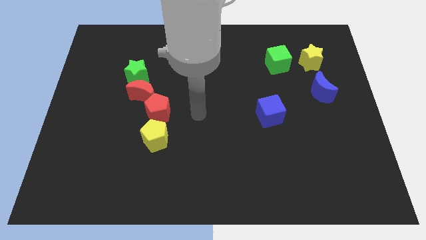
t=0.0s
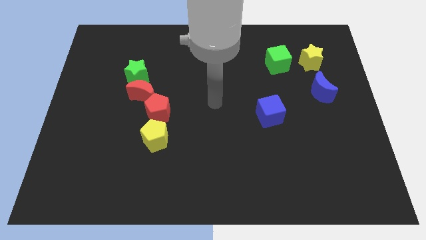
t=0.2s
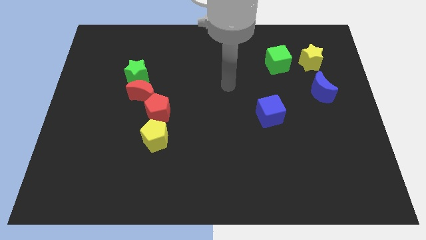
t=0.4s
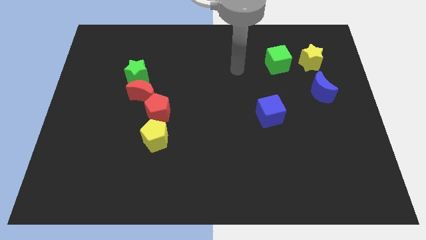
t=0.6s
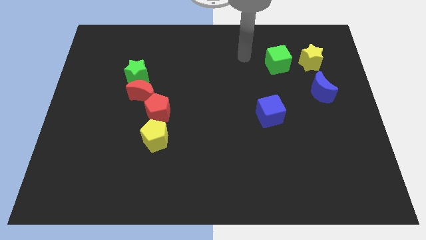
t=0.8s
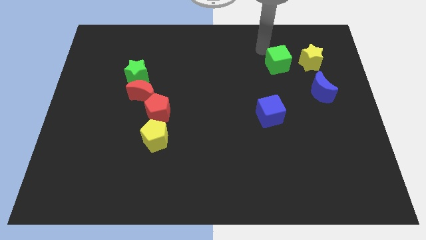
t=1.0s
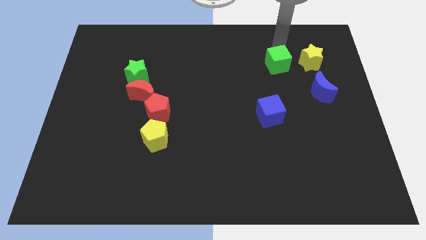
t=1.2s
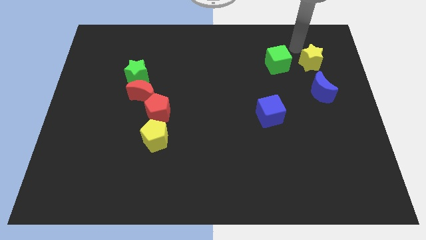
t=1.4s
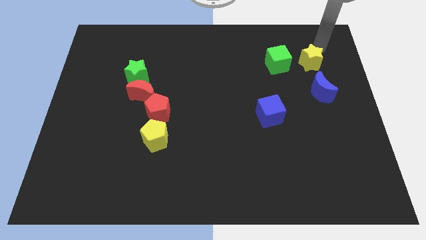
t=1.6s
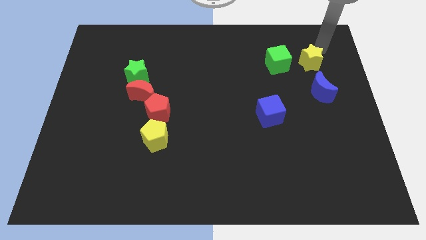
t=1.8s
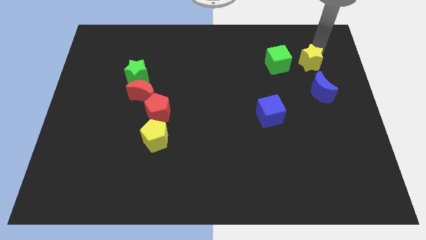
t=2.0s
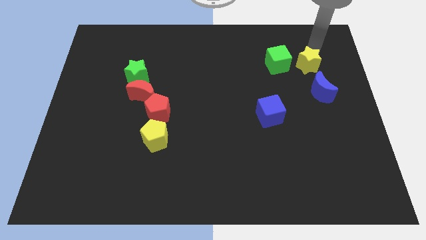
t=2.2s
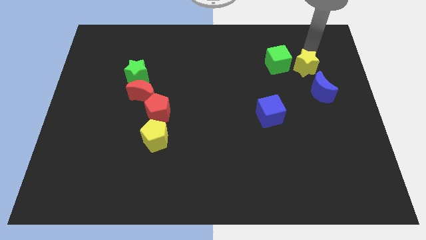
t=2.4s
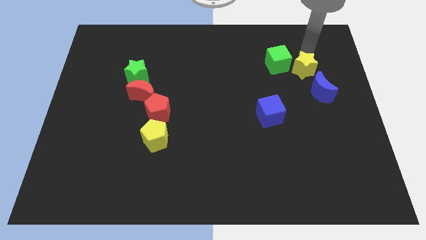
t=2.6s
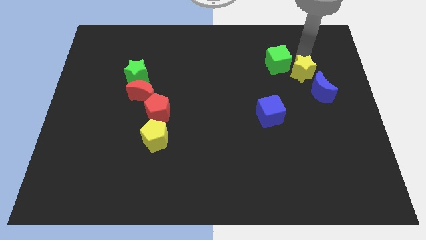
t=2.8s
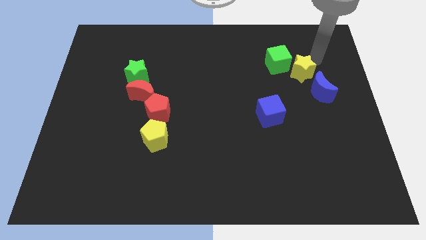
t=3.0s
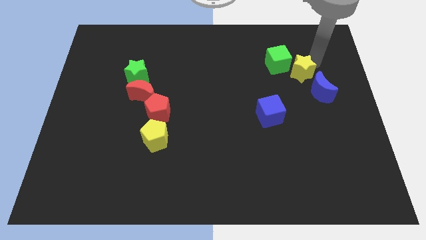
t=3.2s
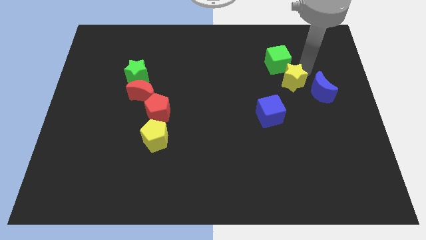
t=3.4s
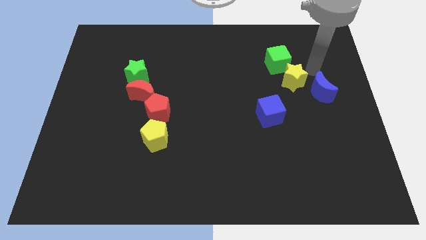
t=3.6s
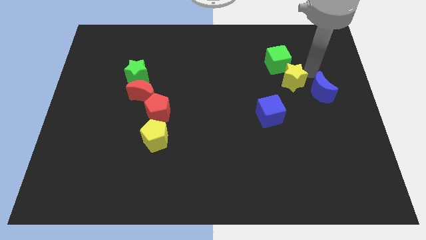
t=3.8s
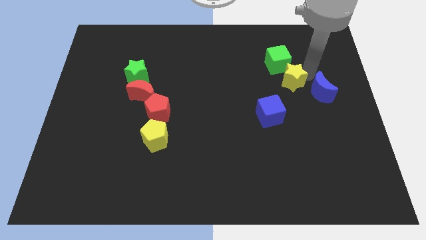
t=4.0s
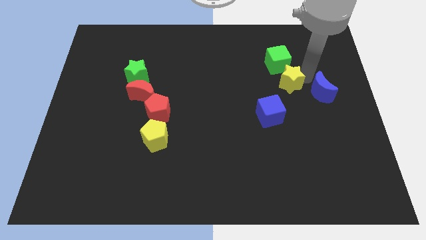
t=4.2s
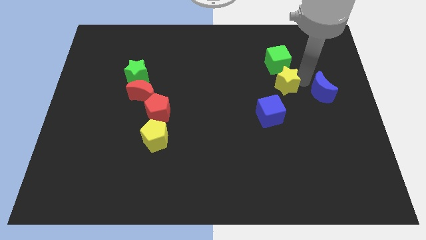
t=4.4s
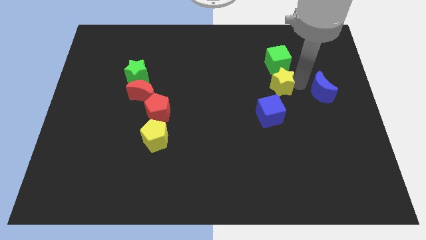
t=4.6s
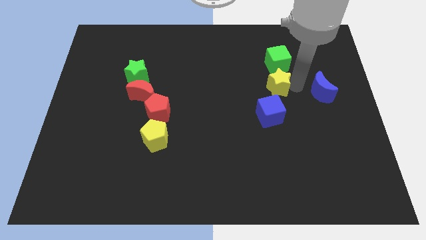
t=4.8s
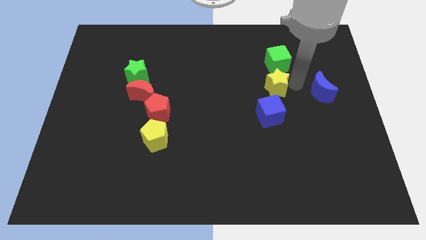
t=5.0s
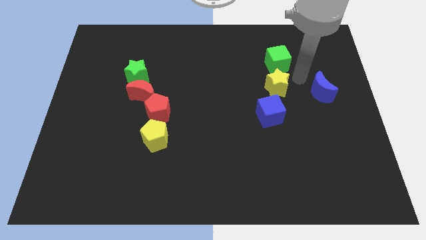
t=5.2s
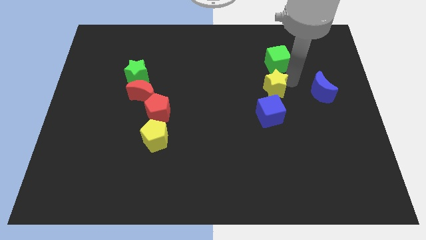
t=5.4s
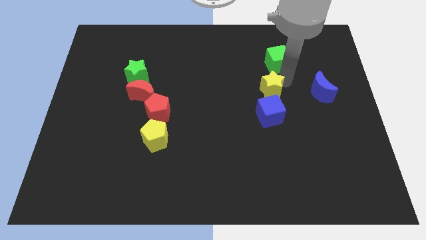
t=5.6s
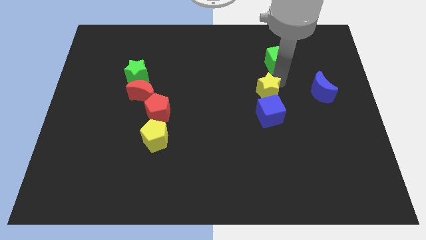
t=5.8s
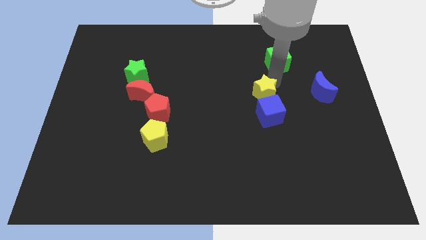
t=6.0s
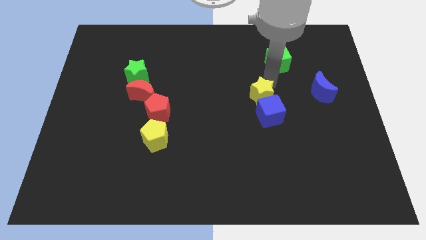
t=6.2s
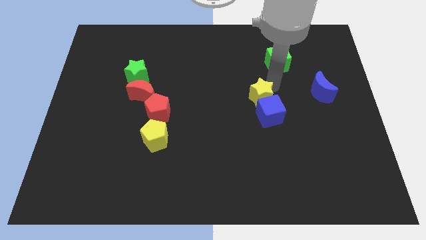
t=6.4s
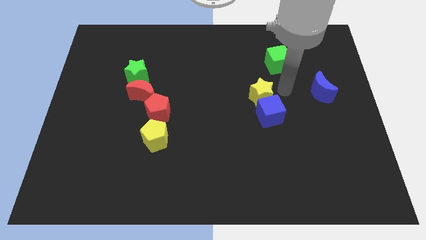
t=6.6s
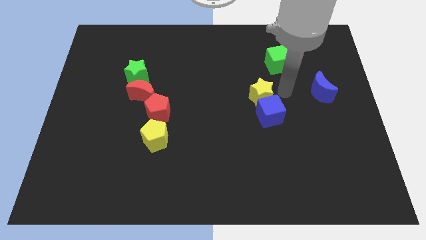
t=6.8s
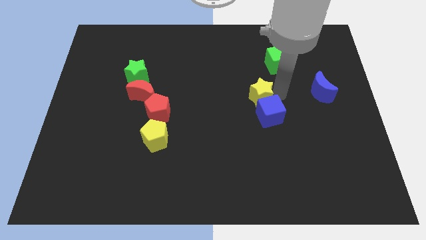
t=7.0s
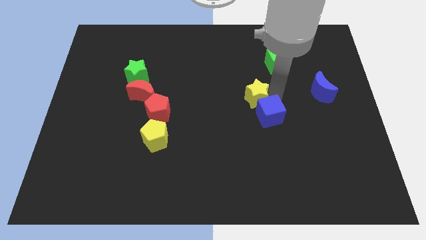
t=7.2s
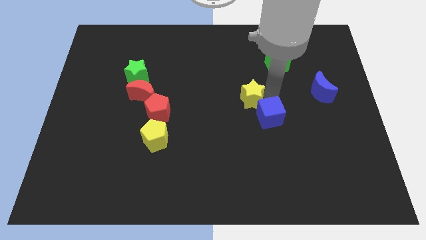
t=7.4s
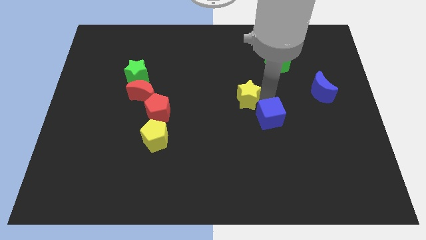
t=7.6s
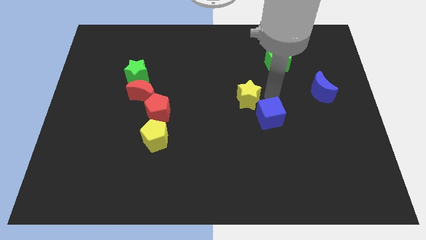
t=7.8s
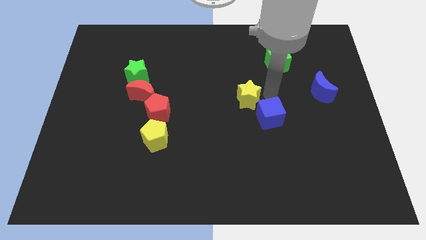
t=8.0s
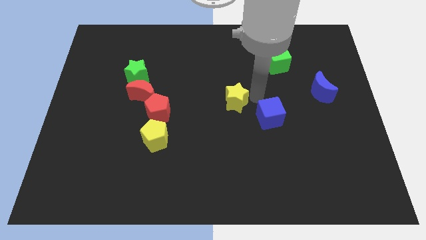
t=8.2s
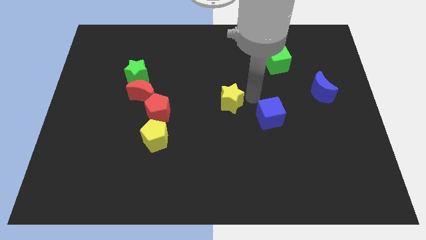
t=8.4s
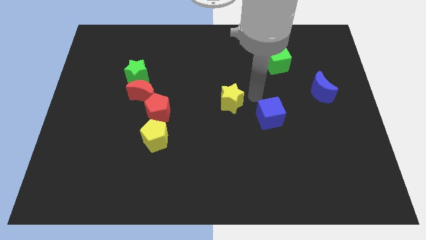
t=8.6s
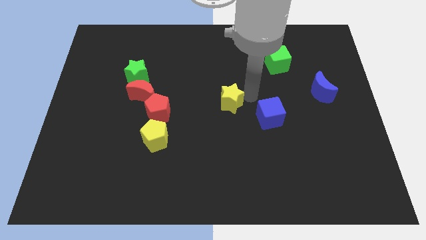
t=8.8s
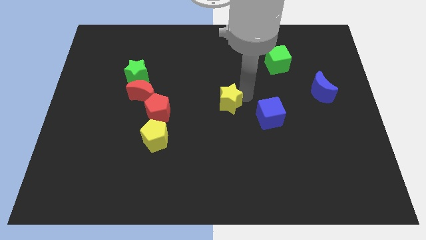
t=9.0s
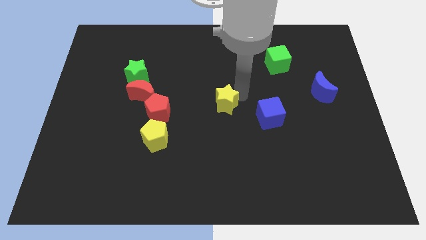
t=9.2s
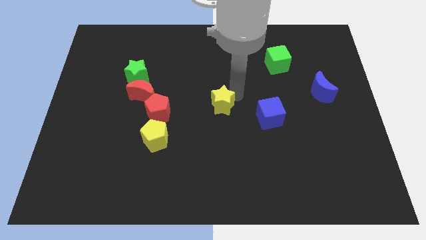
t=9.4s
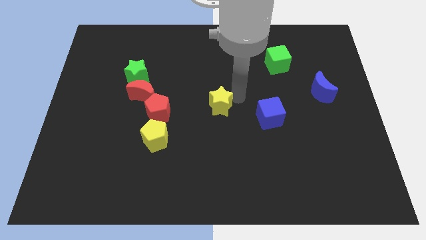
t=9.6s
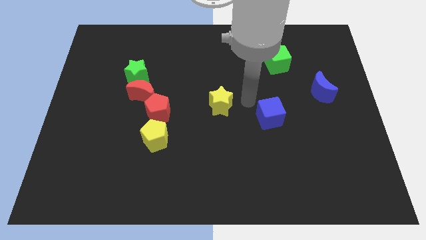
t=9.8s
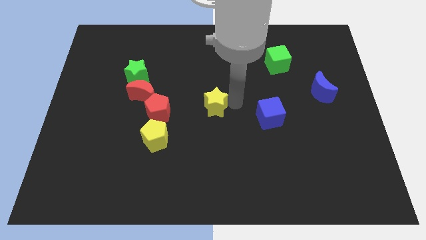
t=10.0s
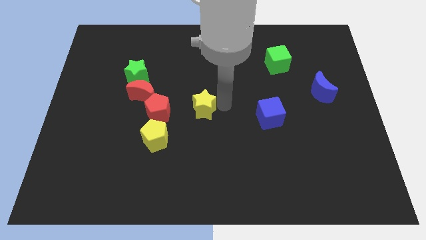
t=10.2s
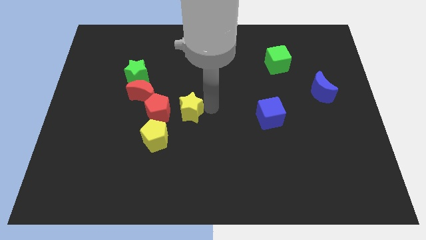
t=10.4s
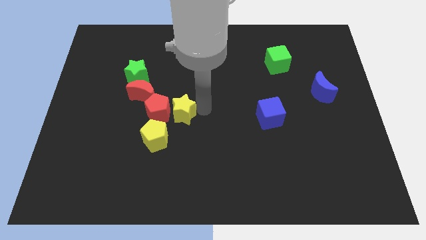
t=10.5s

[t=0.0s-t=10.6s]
put the yellow star close to the red pentagon

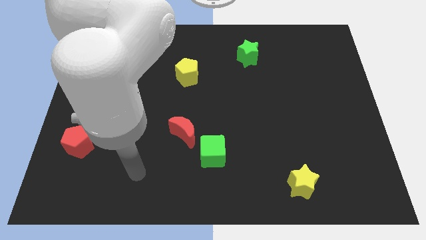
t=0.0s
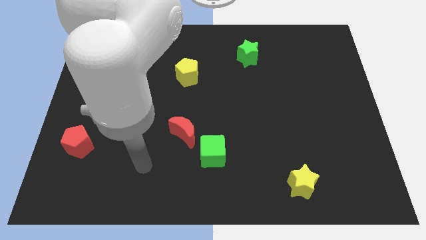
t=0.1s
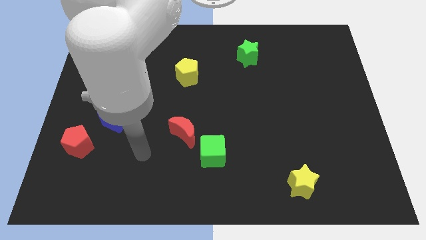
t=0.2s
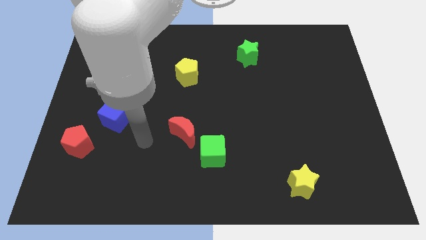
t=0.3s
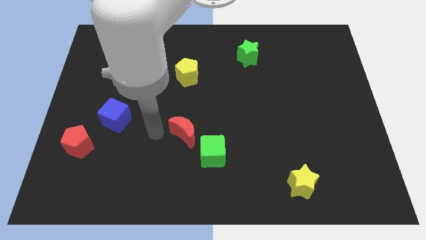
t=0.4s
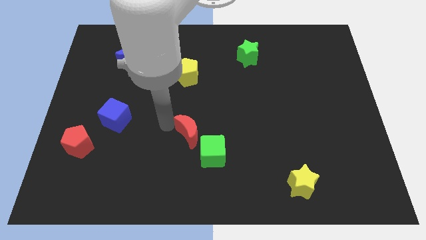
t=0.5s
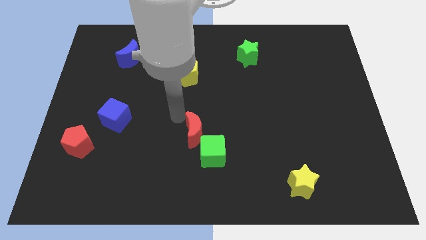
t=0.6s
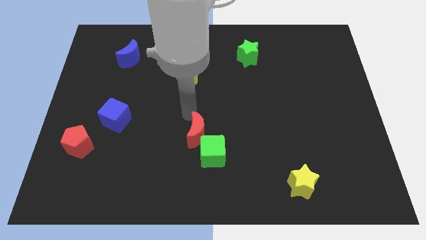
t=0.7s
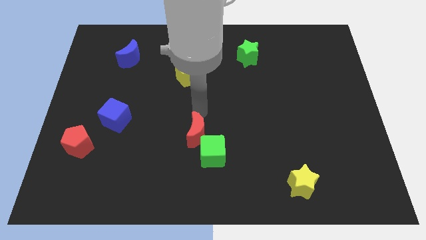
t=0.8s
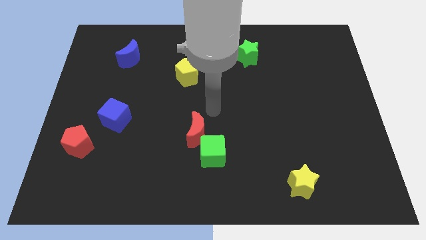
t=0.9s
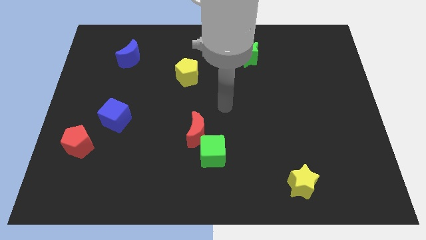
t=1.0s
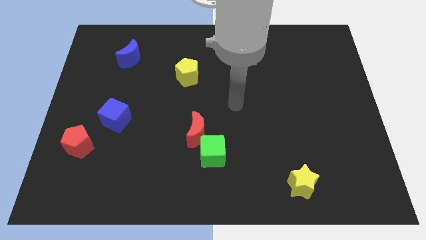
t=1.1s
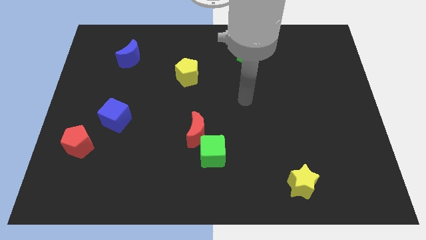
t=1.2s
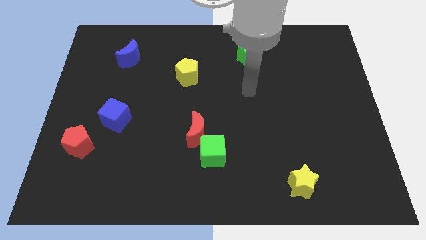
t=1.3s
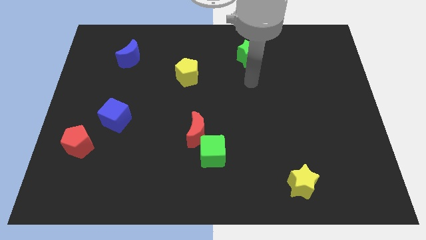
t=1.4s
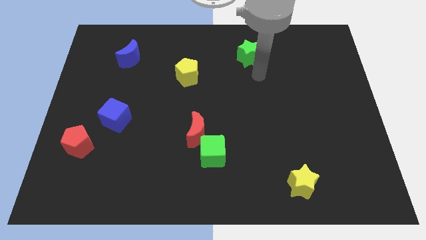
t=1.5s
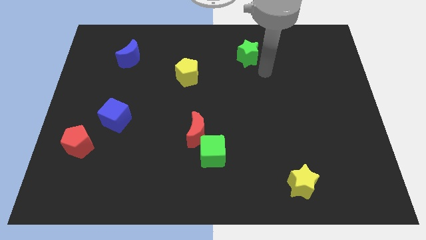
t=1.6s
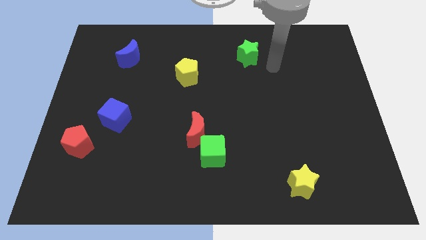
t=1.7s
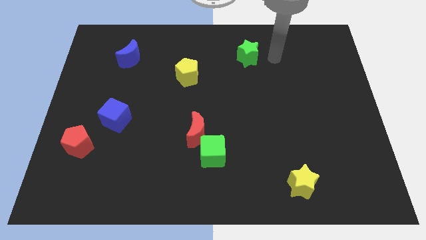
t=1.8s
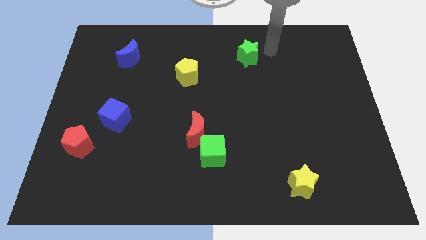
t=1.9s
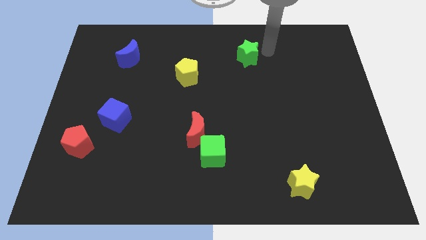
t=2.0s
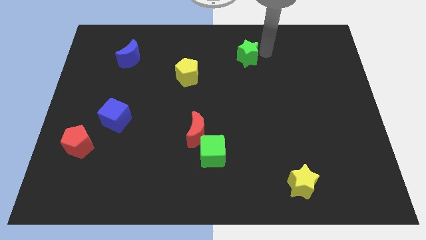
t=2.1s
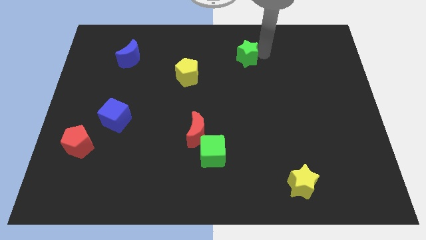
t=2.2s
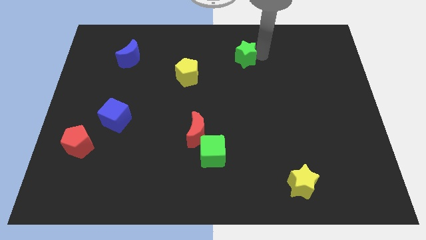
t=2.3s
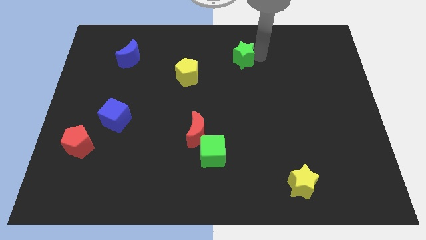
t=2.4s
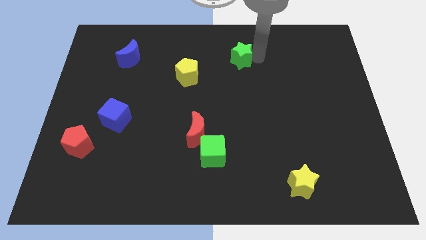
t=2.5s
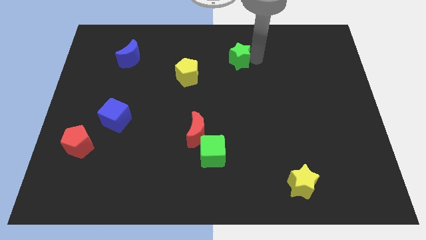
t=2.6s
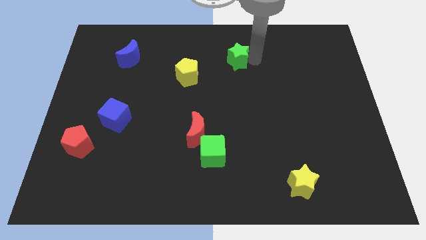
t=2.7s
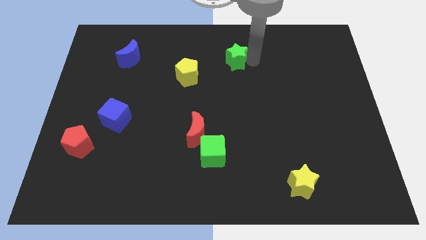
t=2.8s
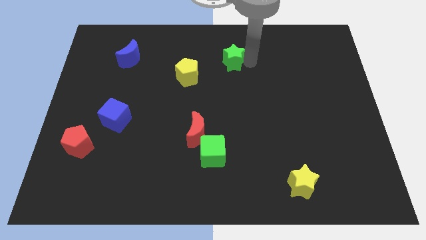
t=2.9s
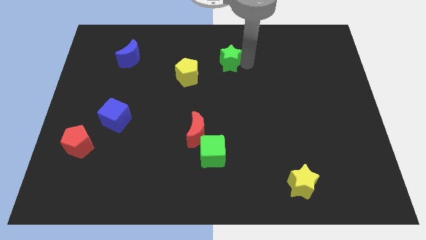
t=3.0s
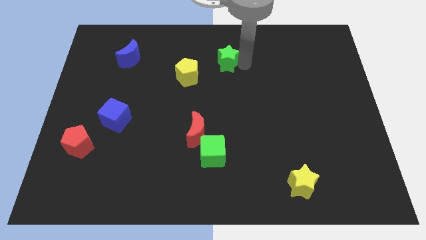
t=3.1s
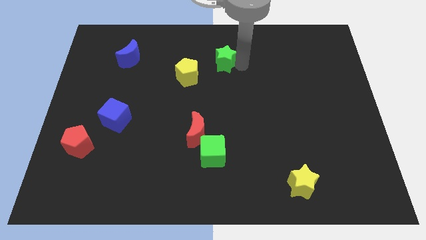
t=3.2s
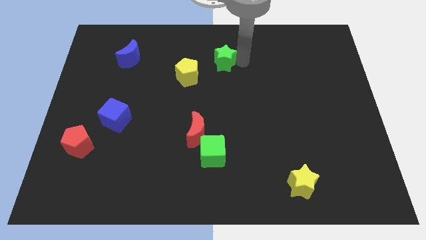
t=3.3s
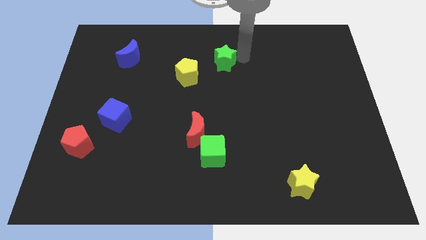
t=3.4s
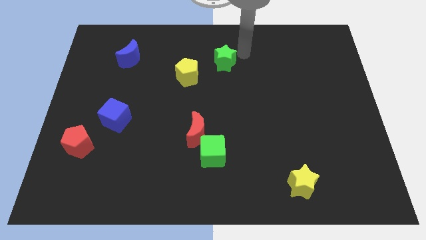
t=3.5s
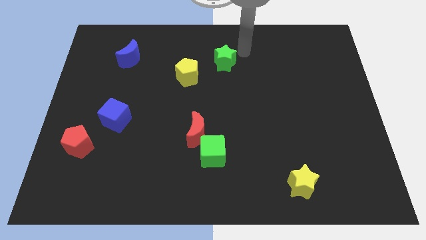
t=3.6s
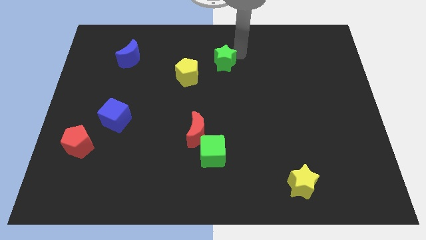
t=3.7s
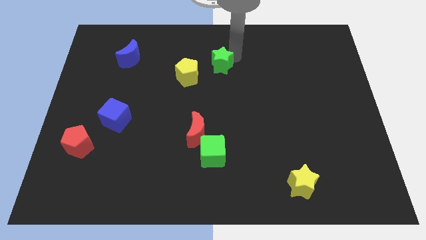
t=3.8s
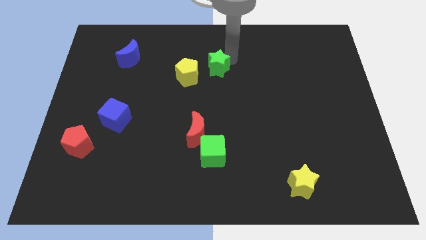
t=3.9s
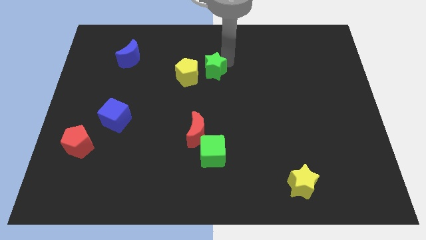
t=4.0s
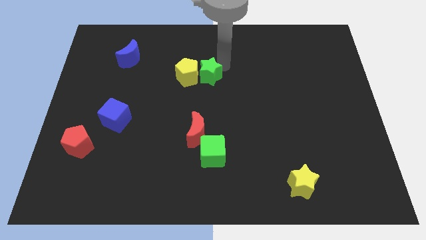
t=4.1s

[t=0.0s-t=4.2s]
put the green star towards the yellow pentagon
